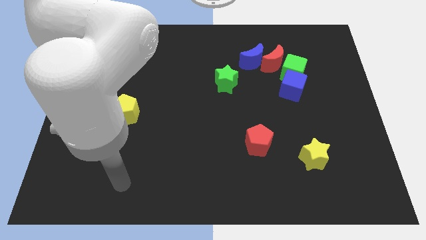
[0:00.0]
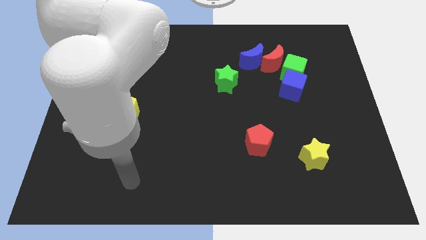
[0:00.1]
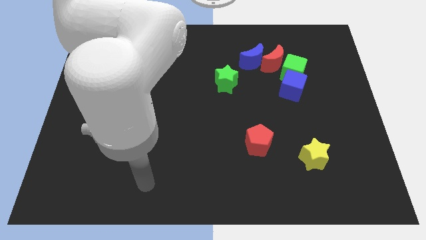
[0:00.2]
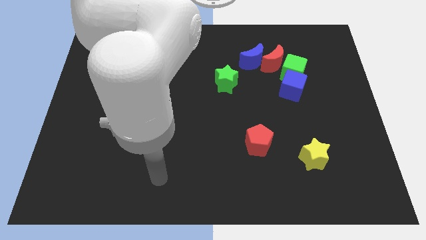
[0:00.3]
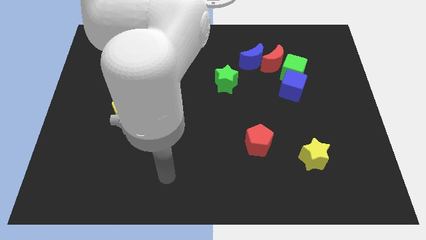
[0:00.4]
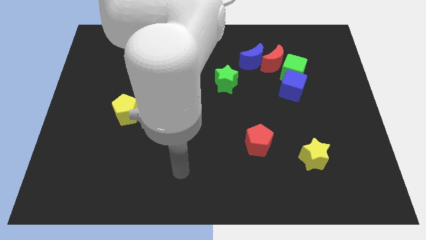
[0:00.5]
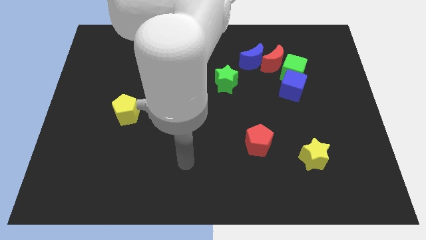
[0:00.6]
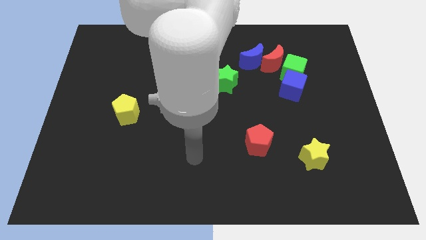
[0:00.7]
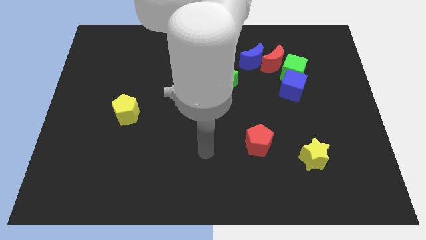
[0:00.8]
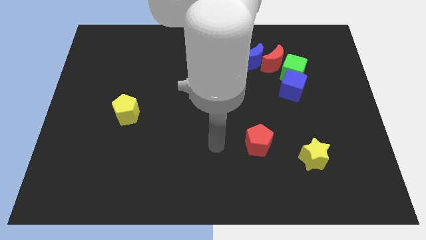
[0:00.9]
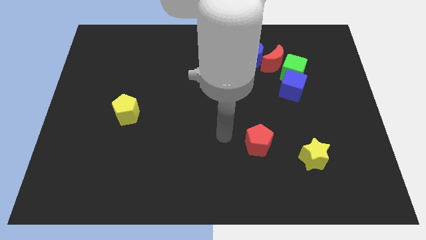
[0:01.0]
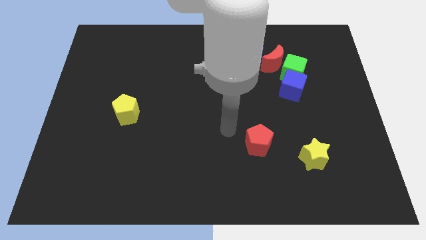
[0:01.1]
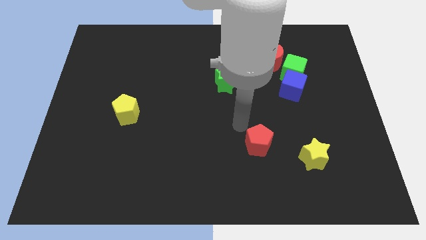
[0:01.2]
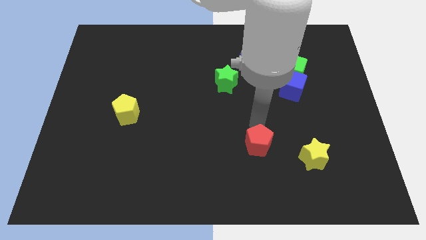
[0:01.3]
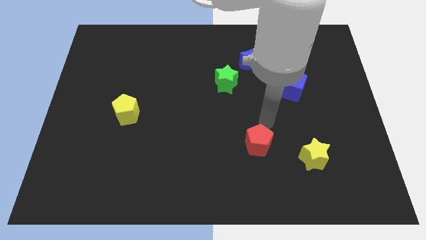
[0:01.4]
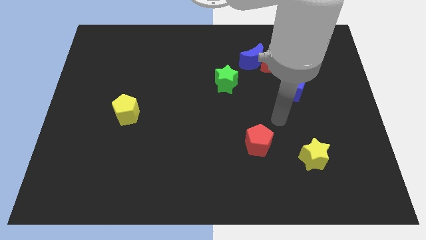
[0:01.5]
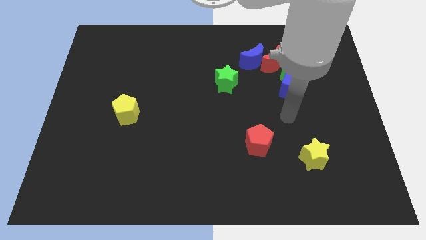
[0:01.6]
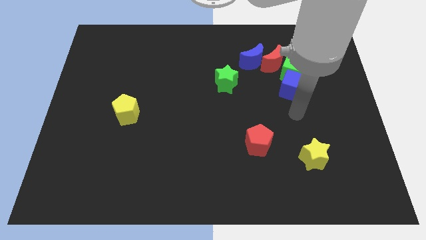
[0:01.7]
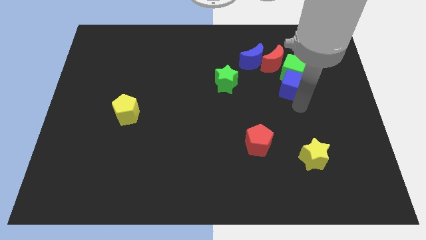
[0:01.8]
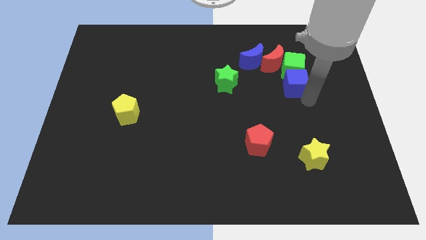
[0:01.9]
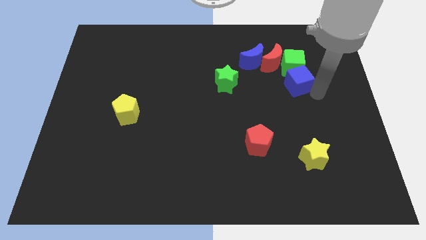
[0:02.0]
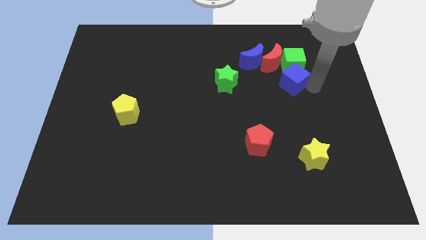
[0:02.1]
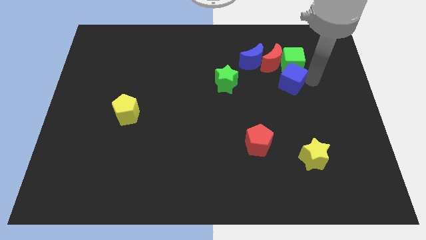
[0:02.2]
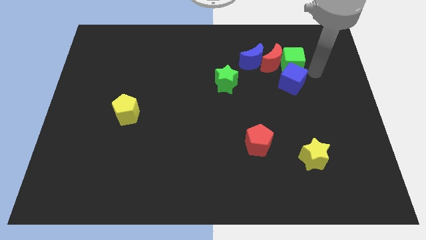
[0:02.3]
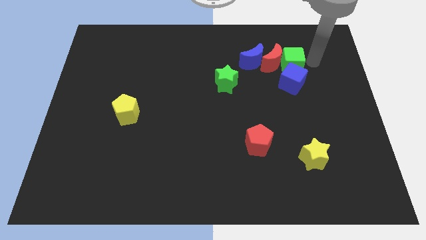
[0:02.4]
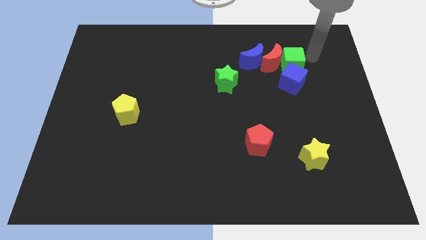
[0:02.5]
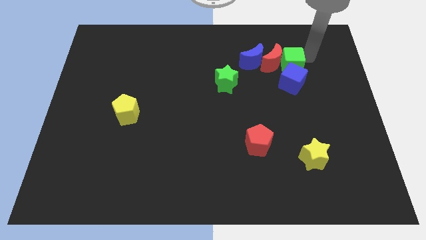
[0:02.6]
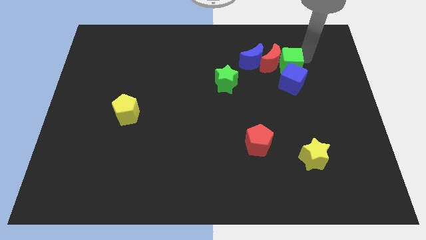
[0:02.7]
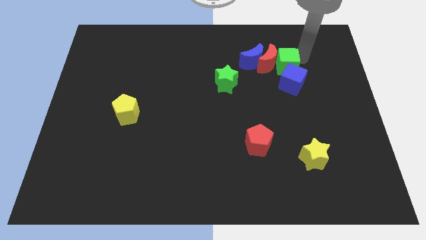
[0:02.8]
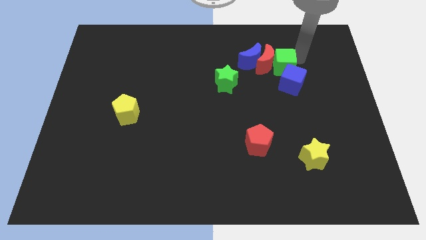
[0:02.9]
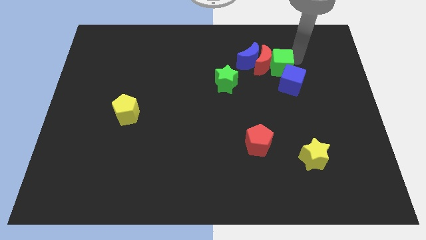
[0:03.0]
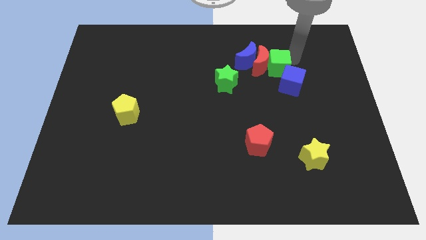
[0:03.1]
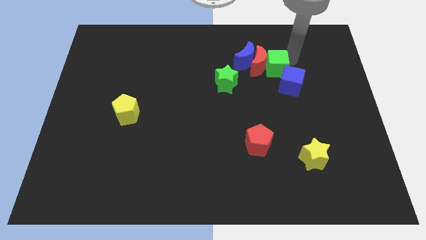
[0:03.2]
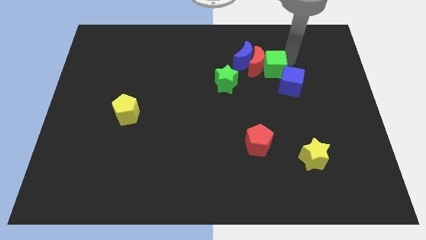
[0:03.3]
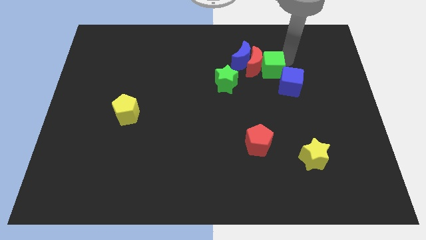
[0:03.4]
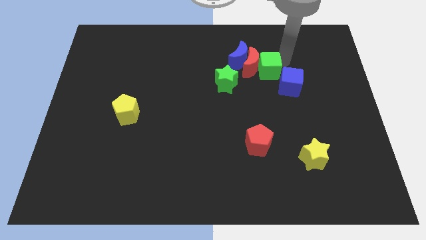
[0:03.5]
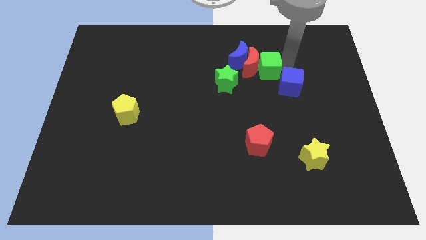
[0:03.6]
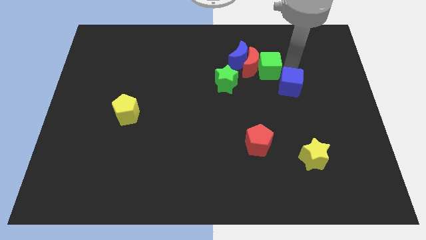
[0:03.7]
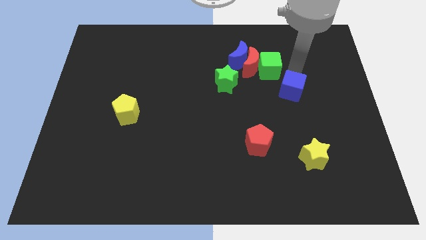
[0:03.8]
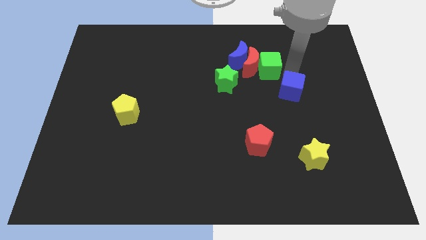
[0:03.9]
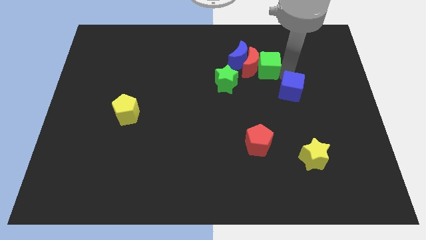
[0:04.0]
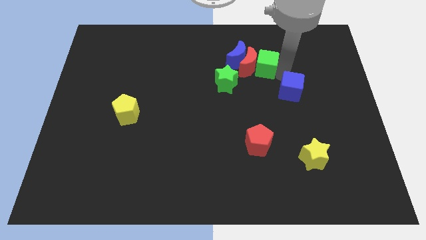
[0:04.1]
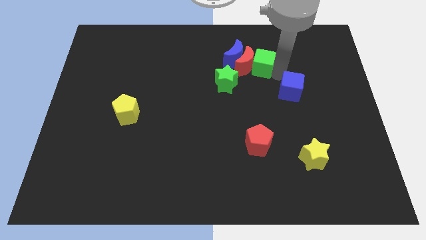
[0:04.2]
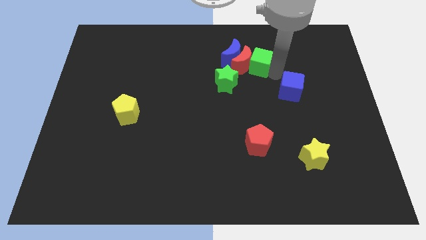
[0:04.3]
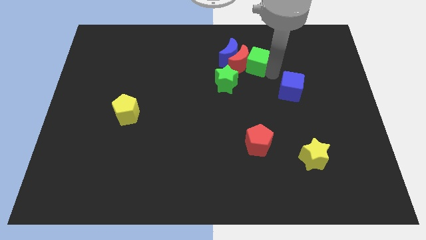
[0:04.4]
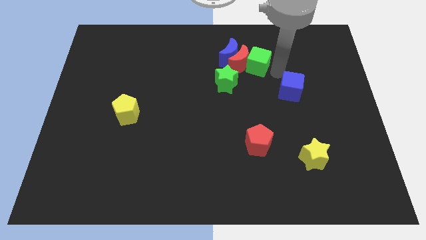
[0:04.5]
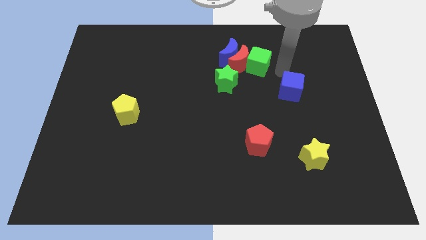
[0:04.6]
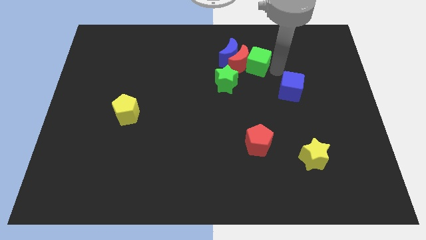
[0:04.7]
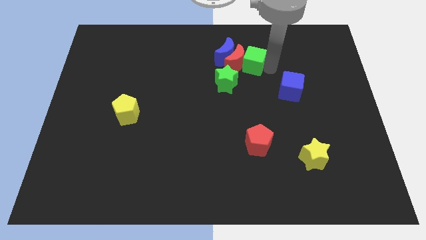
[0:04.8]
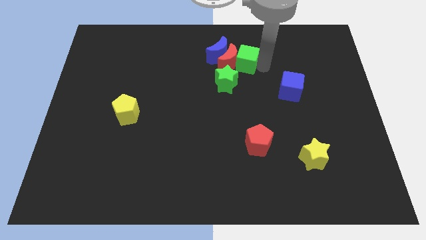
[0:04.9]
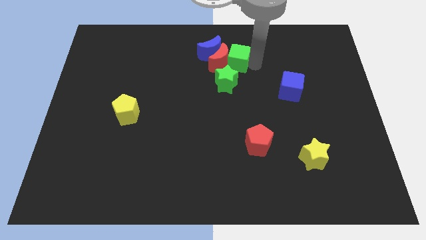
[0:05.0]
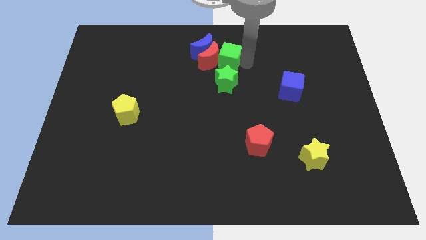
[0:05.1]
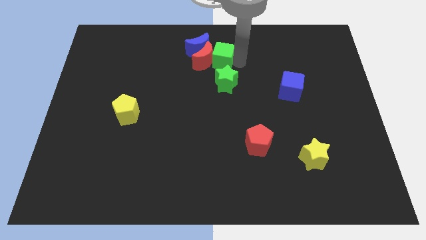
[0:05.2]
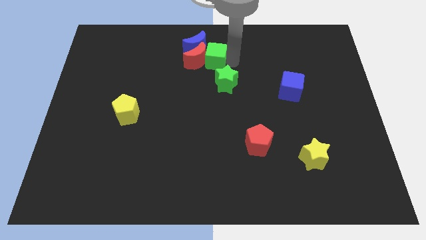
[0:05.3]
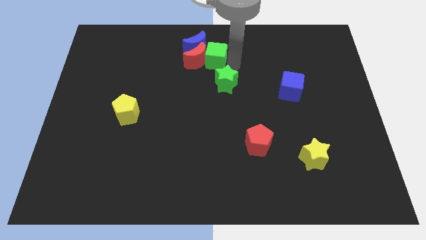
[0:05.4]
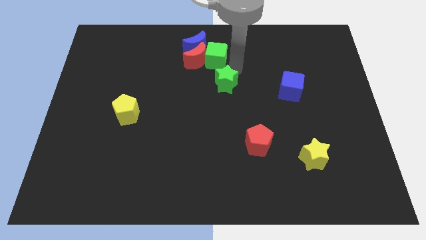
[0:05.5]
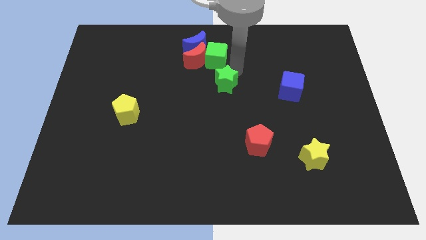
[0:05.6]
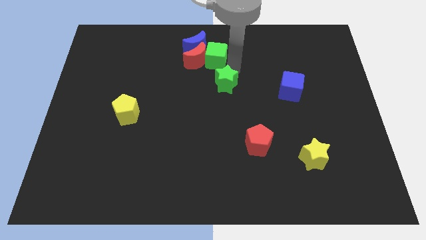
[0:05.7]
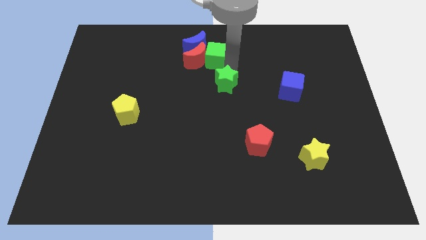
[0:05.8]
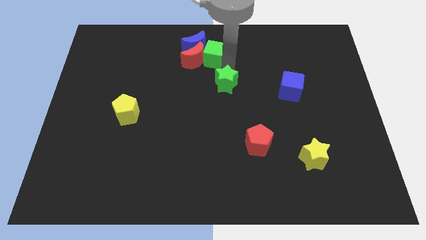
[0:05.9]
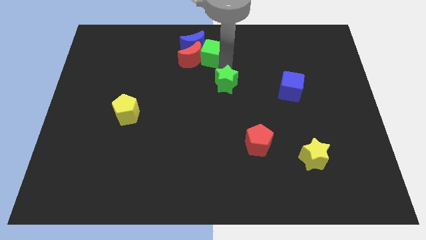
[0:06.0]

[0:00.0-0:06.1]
push the green cube towards the blue moon

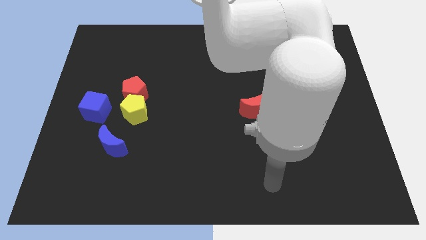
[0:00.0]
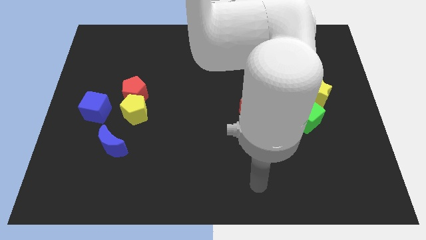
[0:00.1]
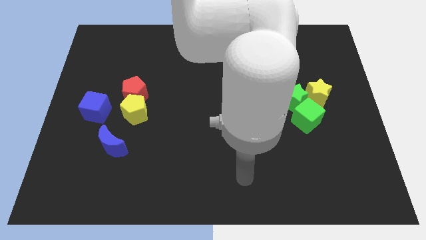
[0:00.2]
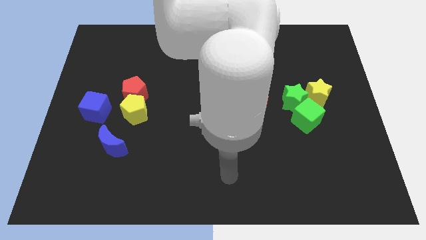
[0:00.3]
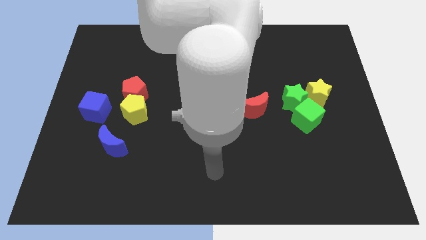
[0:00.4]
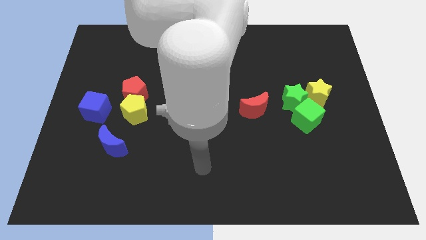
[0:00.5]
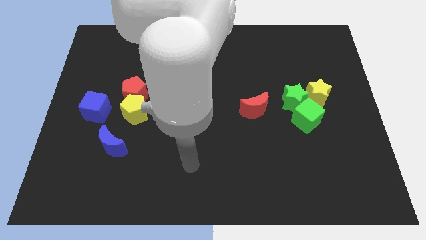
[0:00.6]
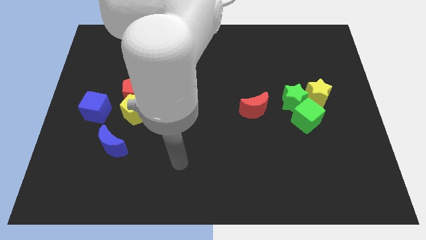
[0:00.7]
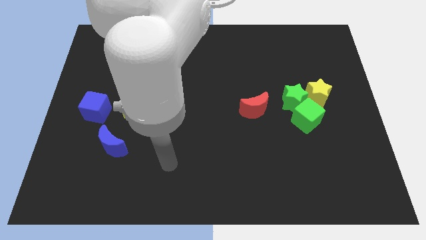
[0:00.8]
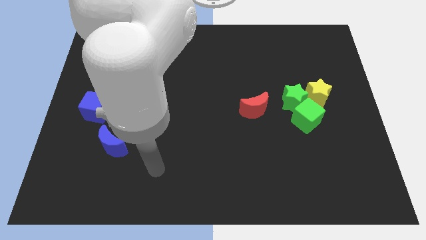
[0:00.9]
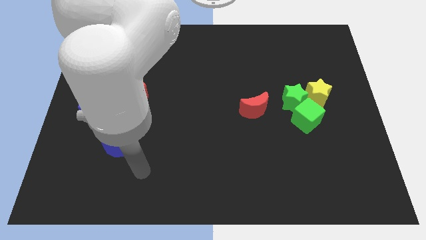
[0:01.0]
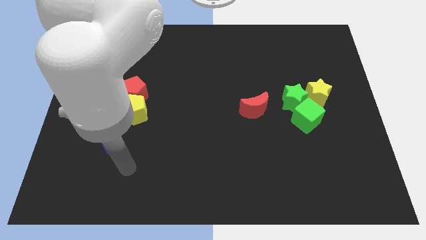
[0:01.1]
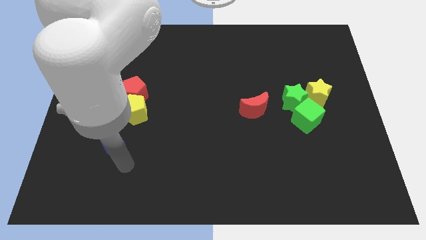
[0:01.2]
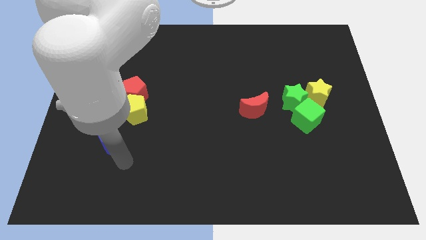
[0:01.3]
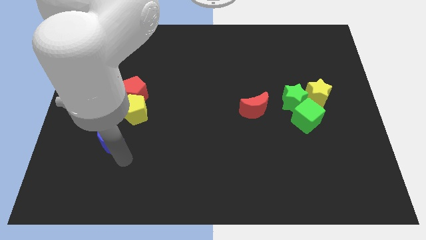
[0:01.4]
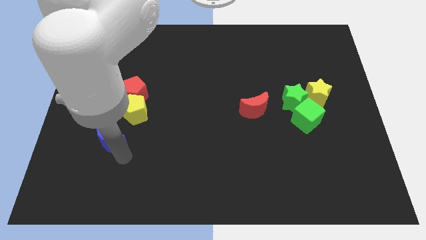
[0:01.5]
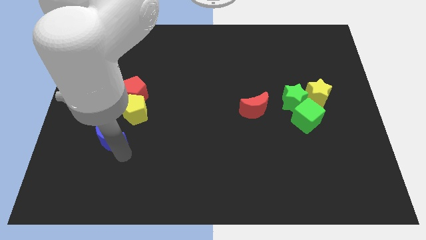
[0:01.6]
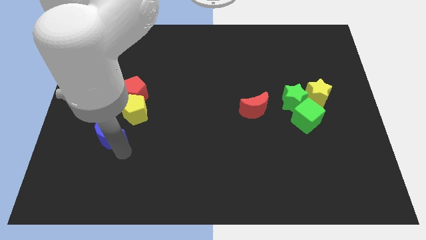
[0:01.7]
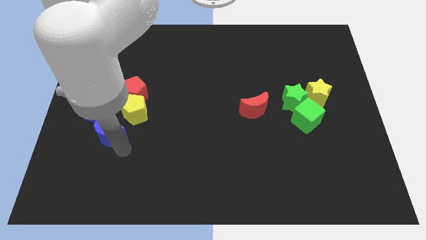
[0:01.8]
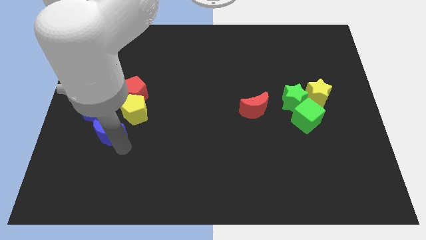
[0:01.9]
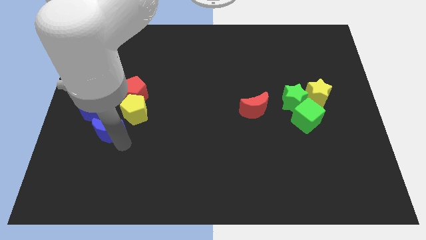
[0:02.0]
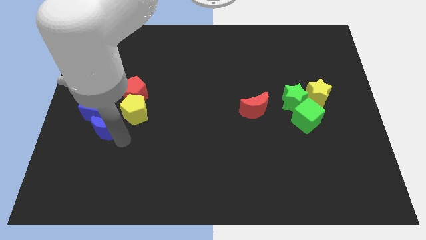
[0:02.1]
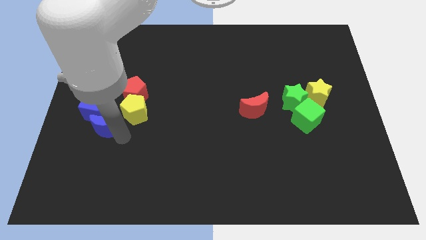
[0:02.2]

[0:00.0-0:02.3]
move the blue moon towards the blue cube
